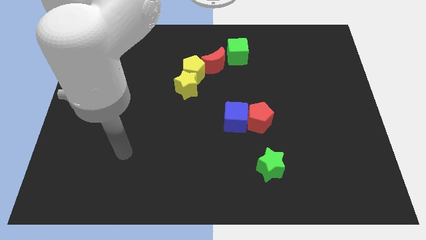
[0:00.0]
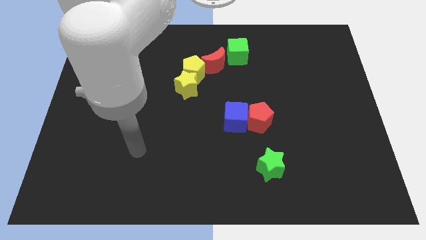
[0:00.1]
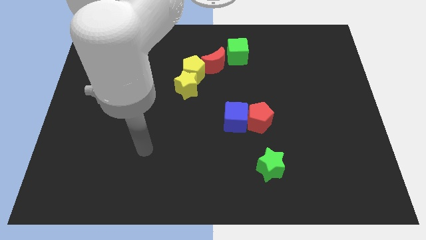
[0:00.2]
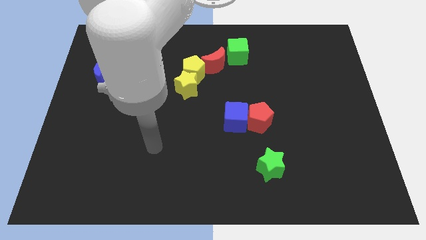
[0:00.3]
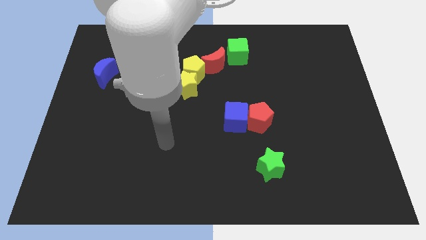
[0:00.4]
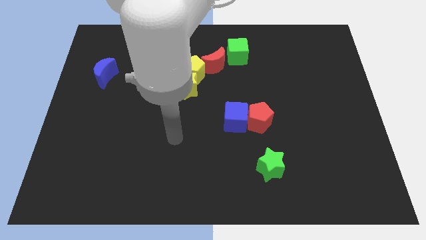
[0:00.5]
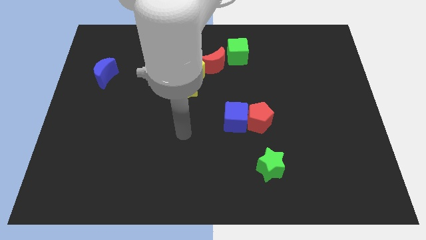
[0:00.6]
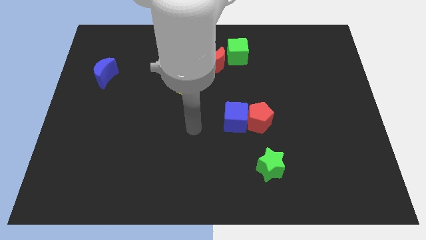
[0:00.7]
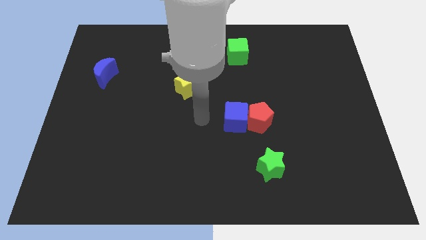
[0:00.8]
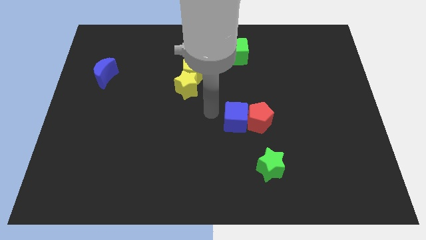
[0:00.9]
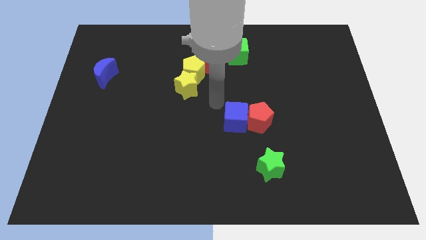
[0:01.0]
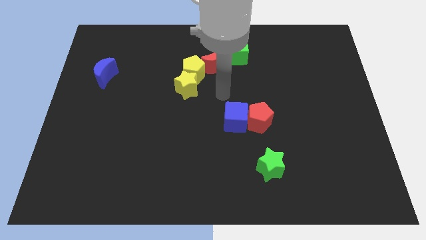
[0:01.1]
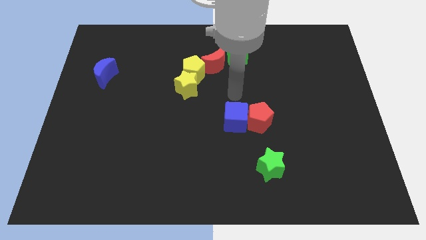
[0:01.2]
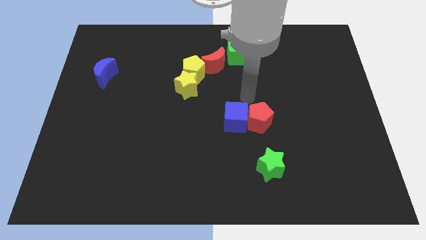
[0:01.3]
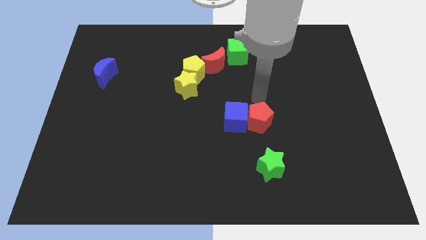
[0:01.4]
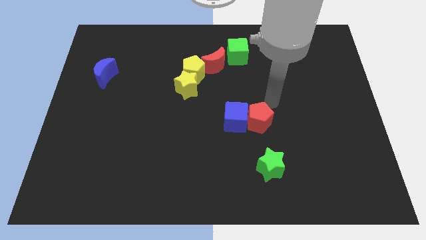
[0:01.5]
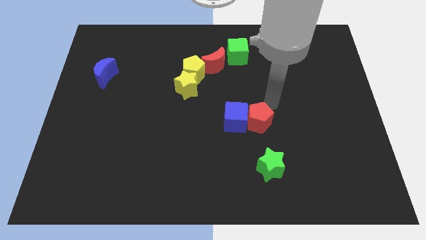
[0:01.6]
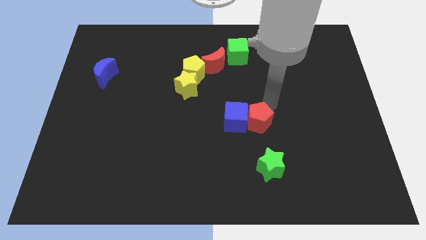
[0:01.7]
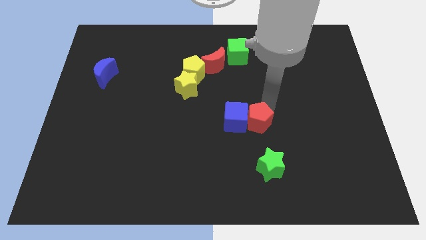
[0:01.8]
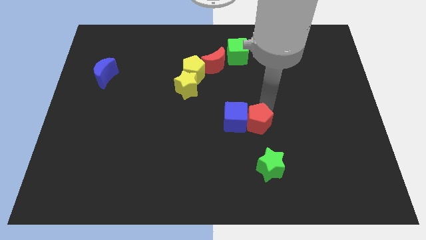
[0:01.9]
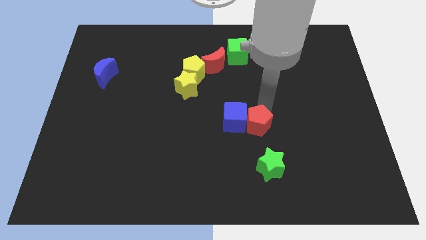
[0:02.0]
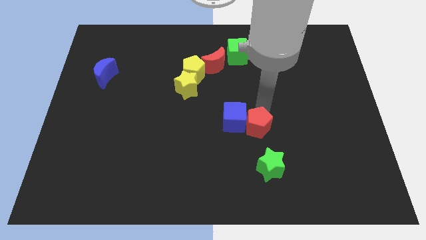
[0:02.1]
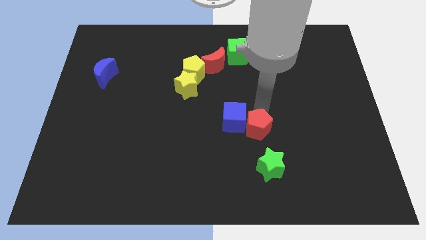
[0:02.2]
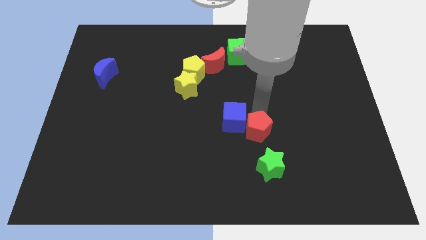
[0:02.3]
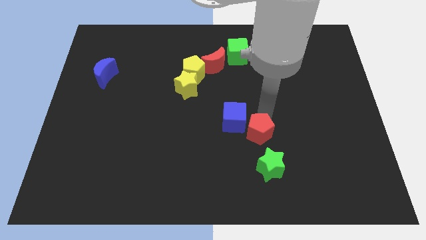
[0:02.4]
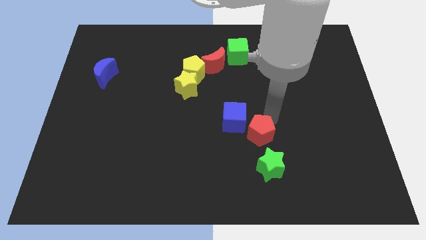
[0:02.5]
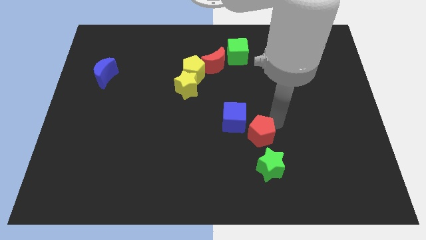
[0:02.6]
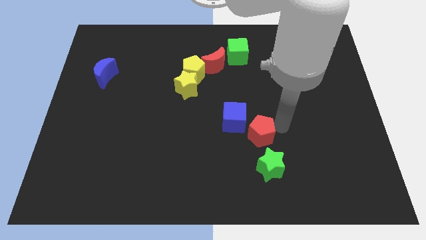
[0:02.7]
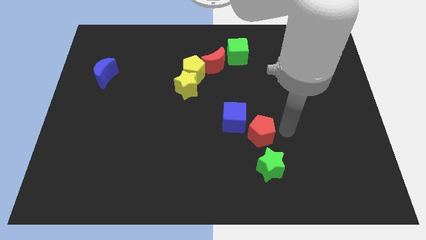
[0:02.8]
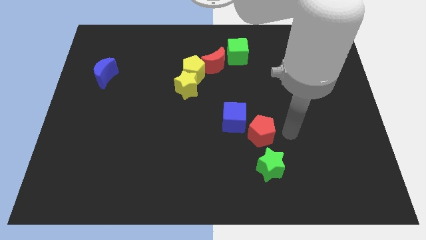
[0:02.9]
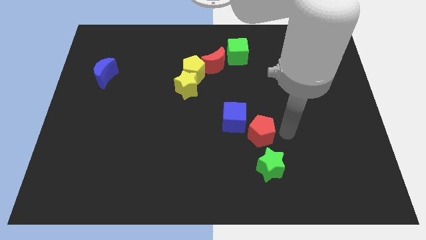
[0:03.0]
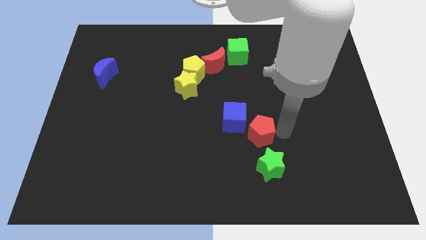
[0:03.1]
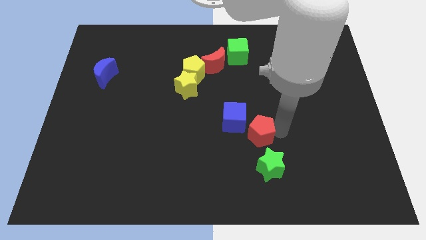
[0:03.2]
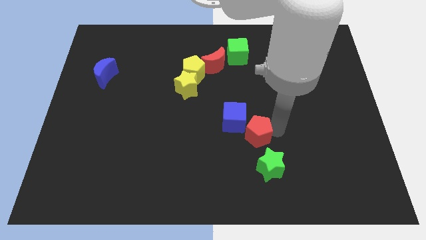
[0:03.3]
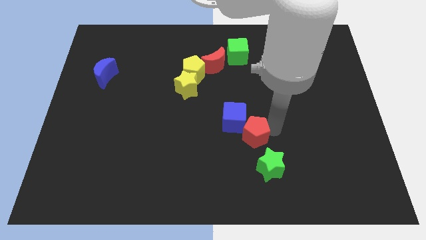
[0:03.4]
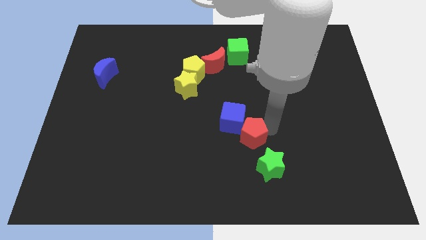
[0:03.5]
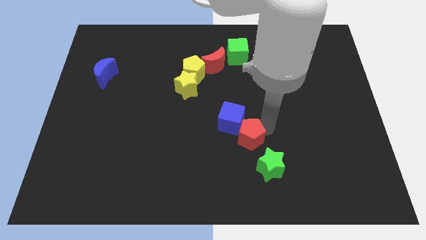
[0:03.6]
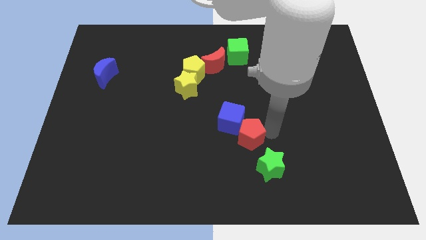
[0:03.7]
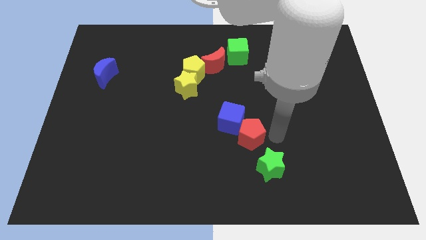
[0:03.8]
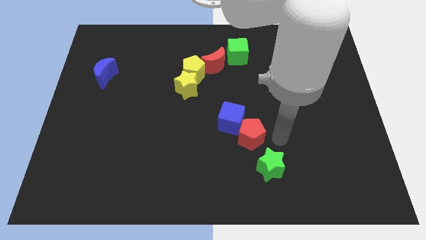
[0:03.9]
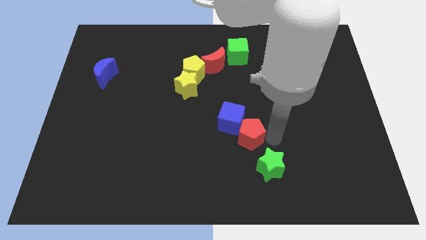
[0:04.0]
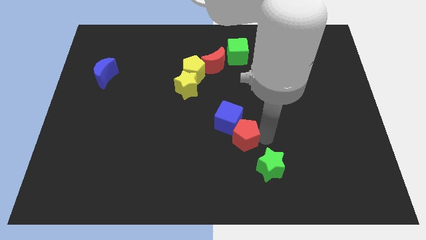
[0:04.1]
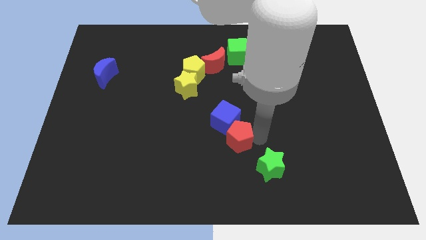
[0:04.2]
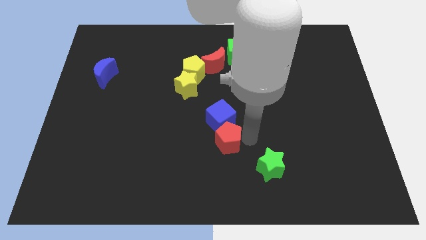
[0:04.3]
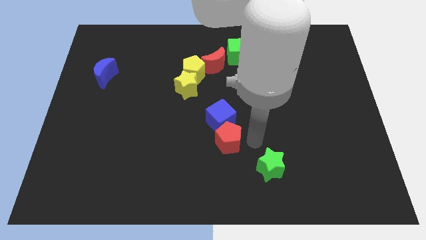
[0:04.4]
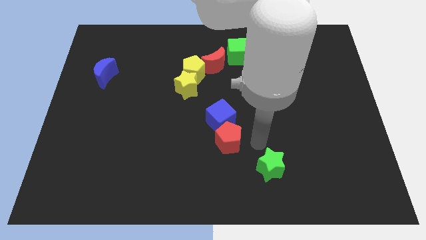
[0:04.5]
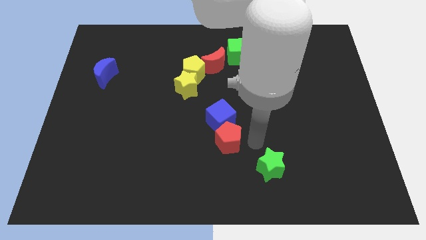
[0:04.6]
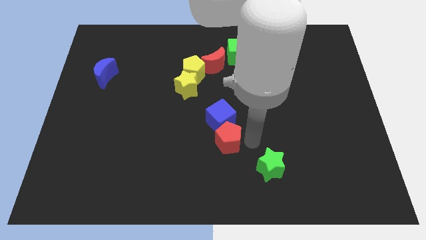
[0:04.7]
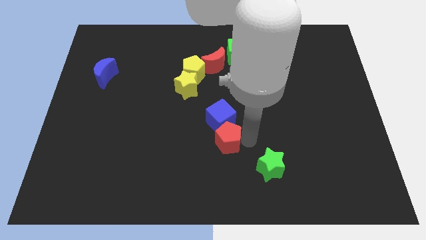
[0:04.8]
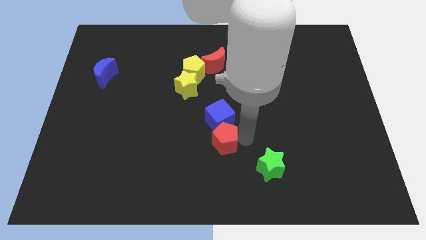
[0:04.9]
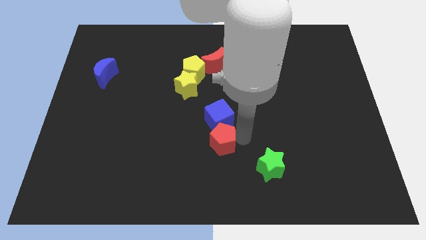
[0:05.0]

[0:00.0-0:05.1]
push the red pentagon to the left a little bit

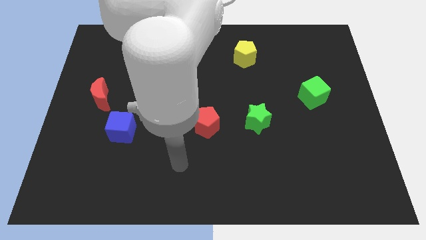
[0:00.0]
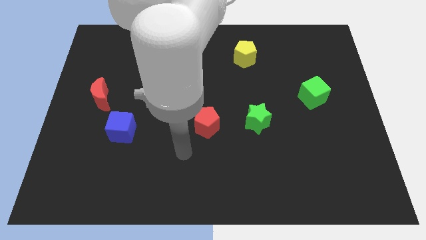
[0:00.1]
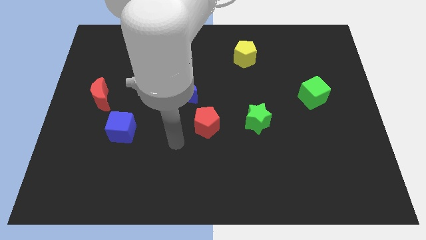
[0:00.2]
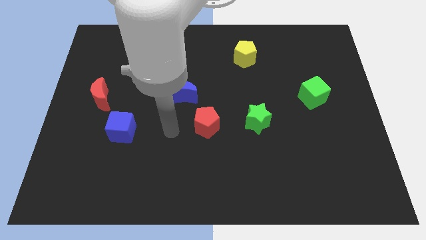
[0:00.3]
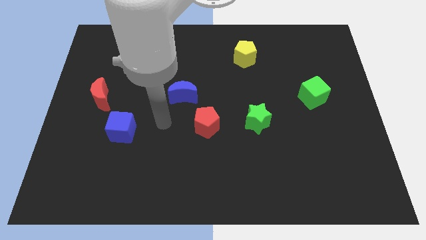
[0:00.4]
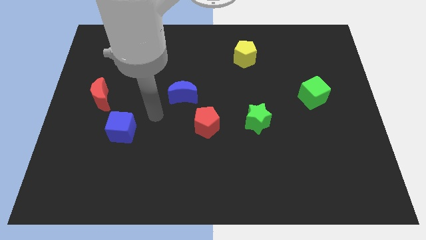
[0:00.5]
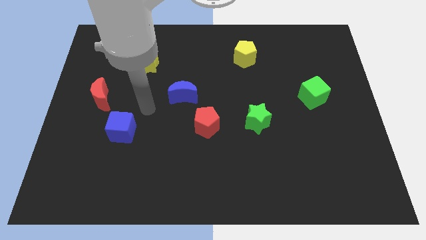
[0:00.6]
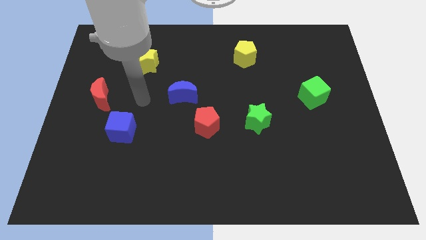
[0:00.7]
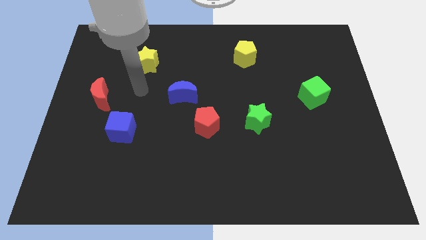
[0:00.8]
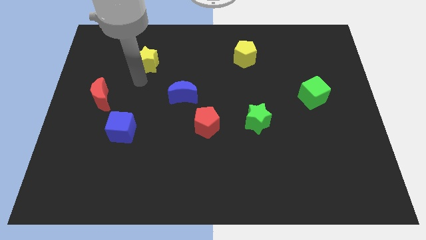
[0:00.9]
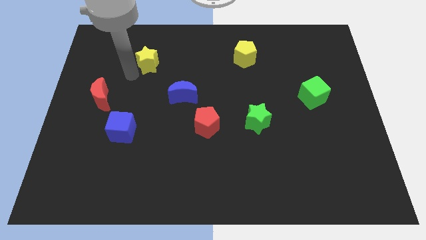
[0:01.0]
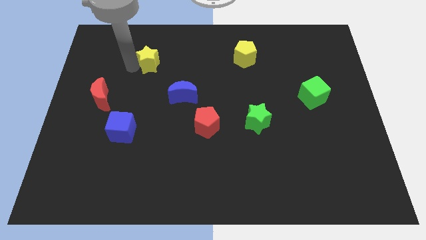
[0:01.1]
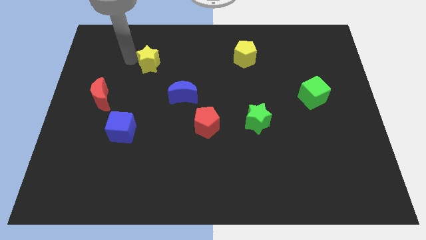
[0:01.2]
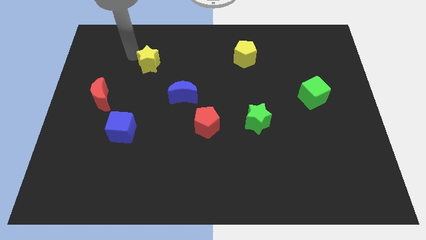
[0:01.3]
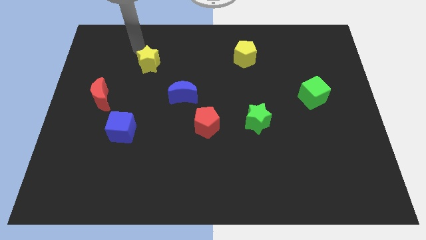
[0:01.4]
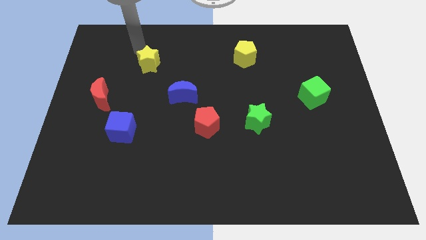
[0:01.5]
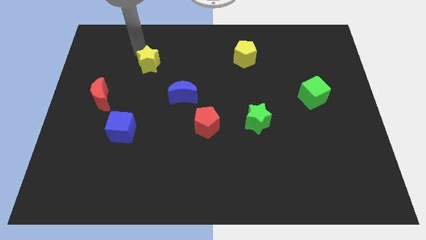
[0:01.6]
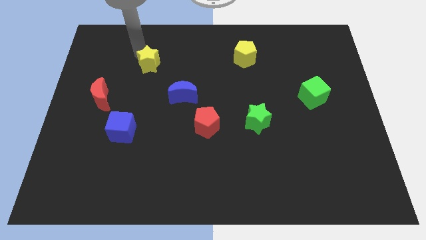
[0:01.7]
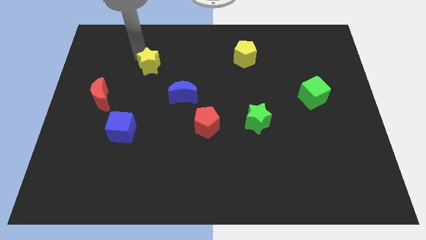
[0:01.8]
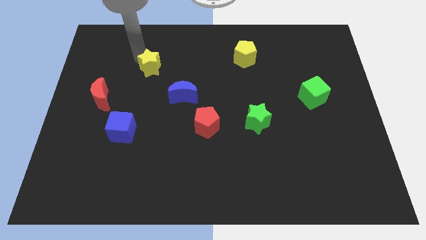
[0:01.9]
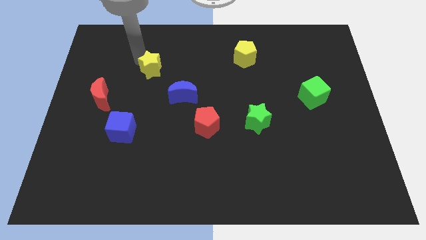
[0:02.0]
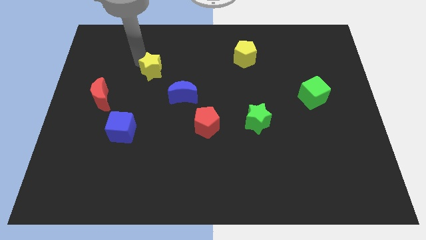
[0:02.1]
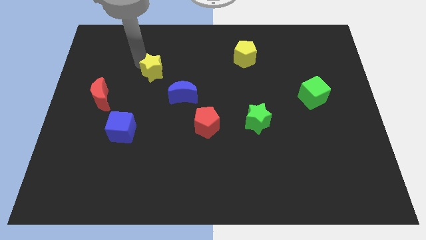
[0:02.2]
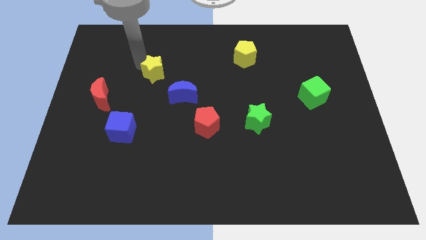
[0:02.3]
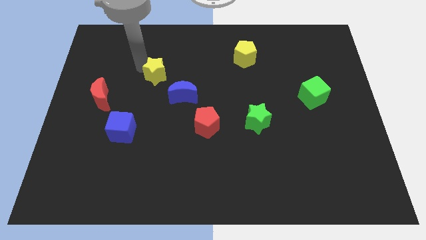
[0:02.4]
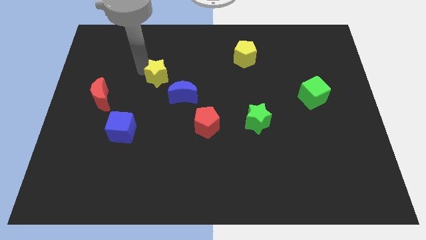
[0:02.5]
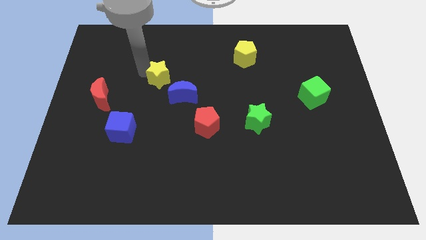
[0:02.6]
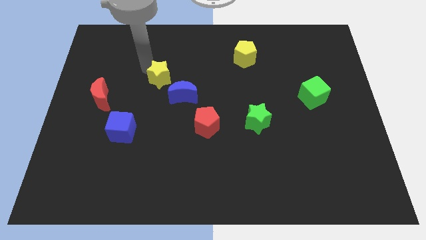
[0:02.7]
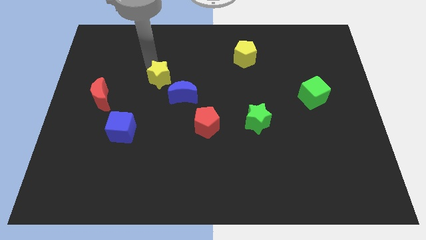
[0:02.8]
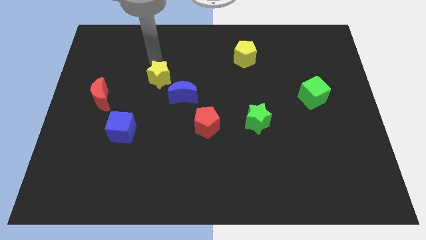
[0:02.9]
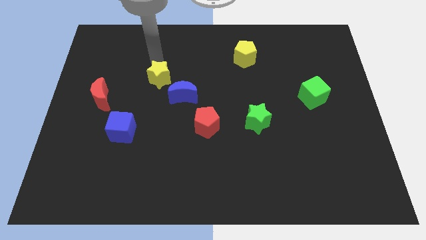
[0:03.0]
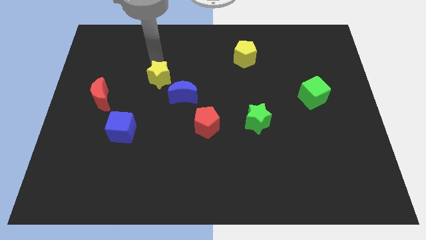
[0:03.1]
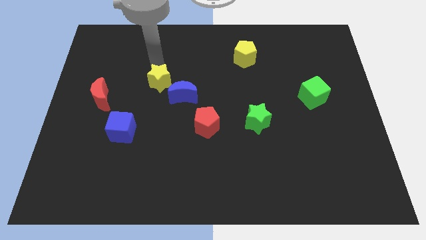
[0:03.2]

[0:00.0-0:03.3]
slightly slide the yellow star diagonally downwards and right
